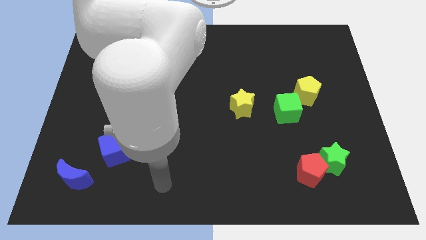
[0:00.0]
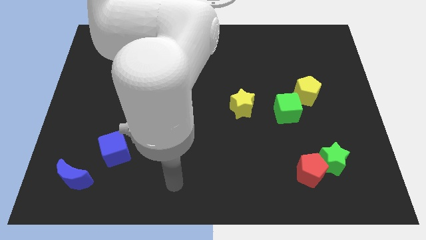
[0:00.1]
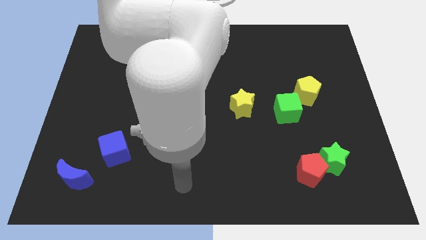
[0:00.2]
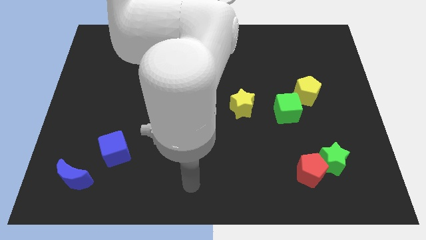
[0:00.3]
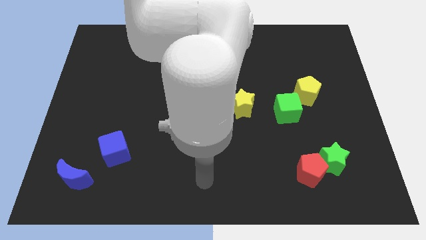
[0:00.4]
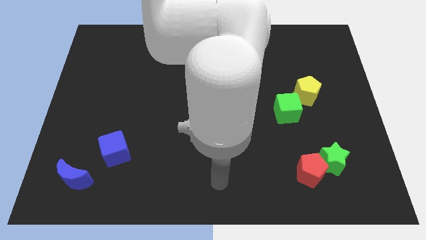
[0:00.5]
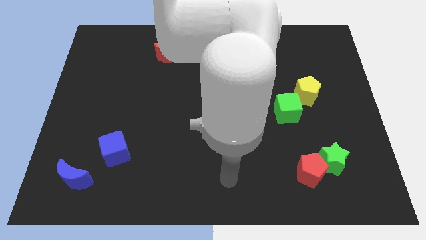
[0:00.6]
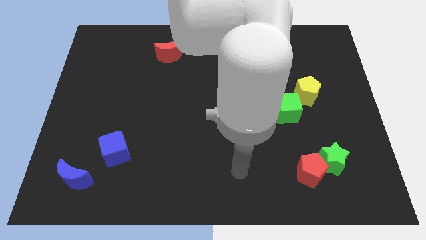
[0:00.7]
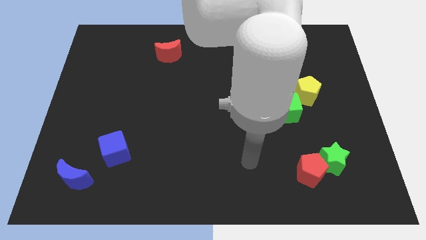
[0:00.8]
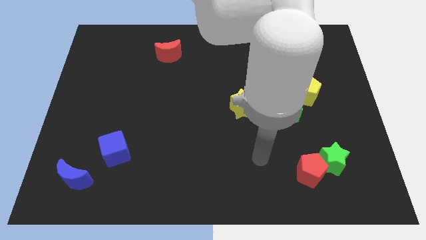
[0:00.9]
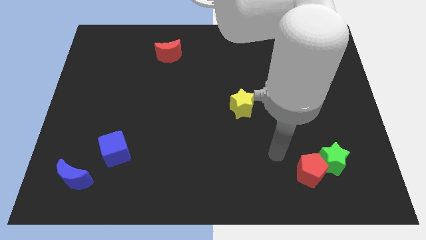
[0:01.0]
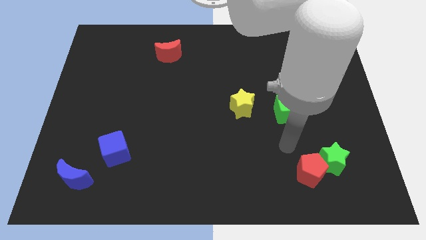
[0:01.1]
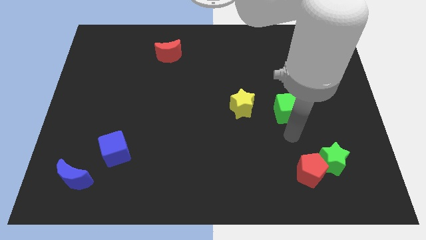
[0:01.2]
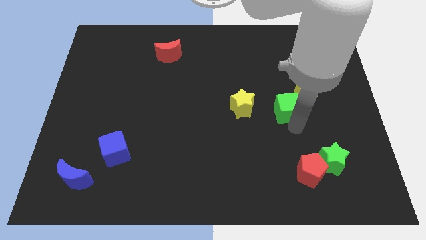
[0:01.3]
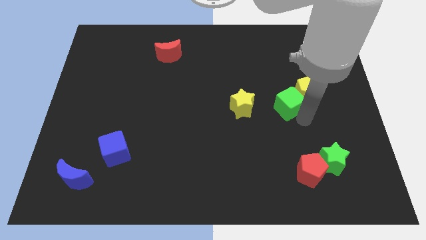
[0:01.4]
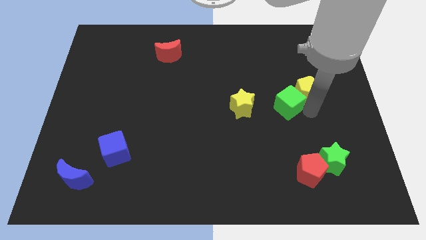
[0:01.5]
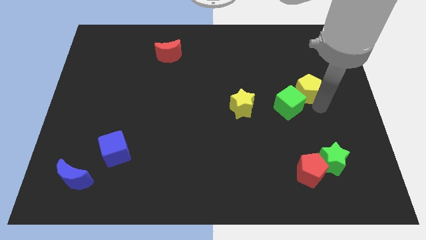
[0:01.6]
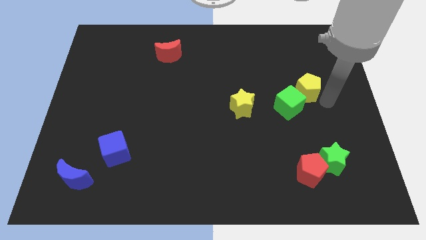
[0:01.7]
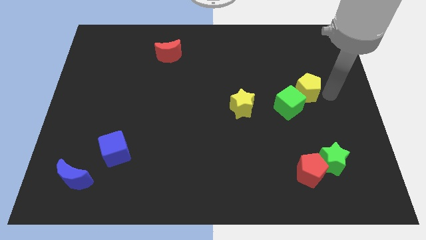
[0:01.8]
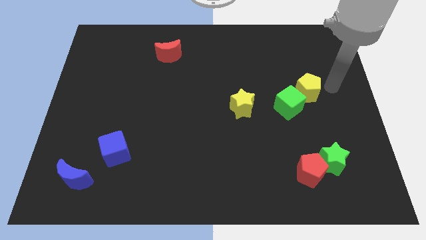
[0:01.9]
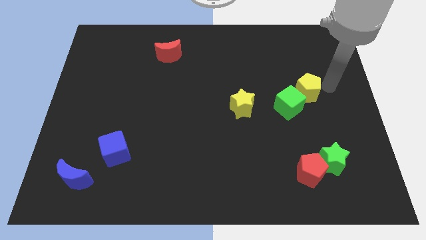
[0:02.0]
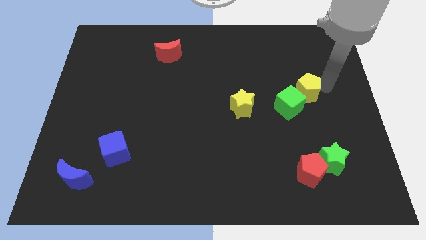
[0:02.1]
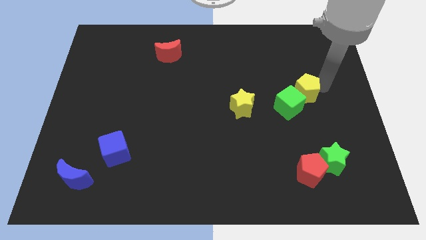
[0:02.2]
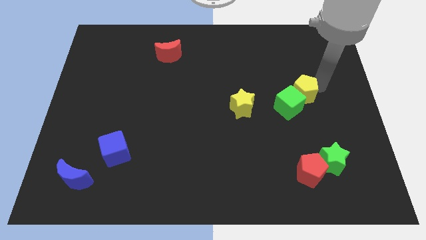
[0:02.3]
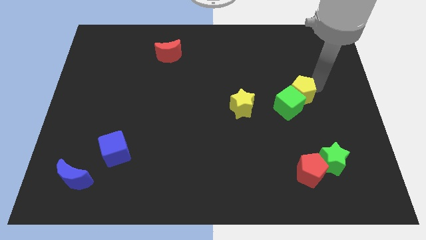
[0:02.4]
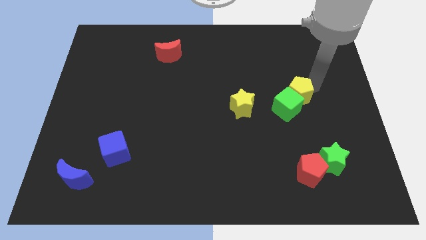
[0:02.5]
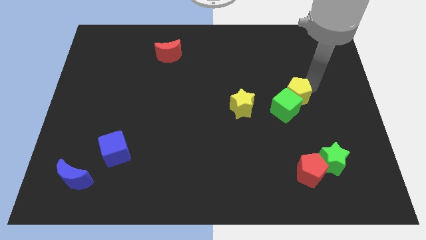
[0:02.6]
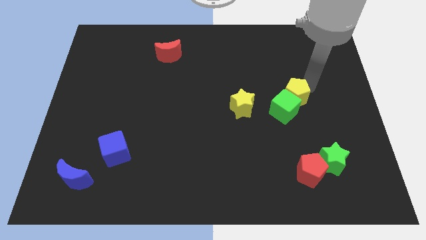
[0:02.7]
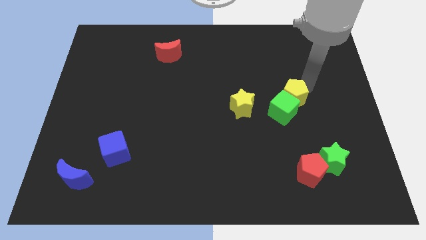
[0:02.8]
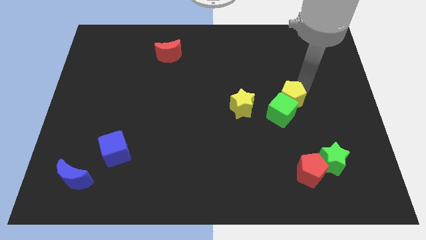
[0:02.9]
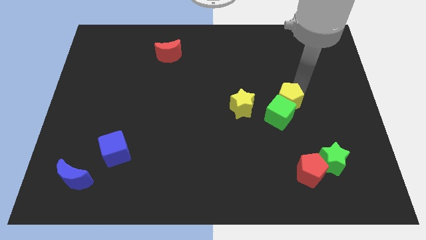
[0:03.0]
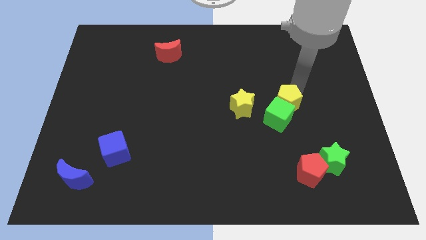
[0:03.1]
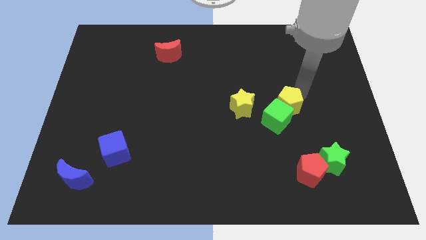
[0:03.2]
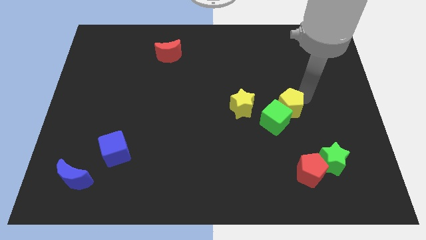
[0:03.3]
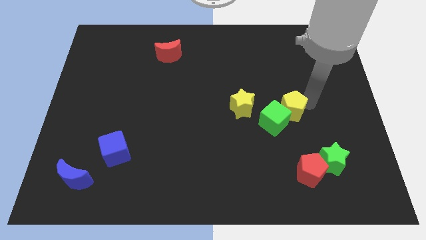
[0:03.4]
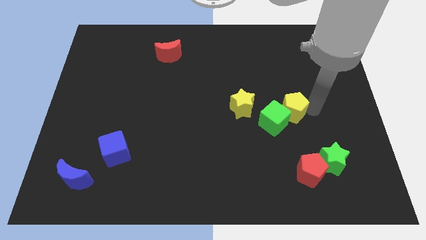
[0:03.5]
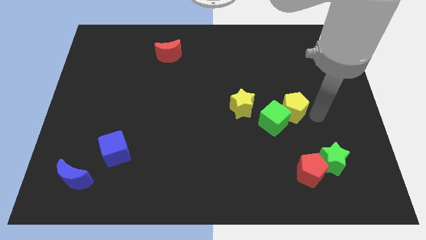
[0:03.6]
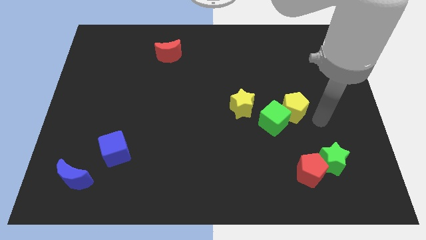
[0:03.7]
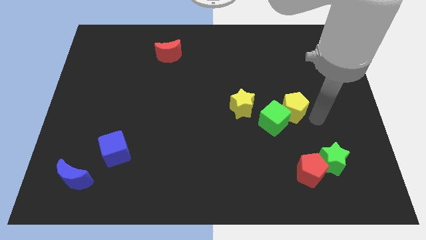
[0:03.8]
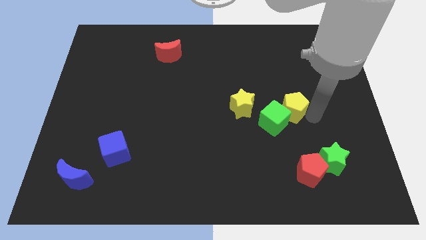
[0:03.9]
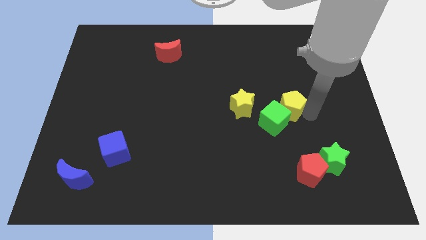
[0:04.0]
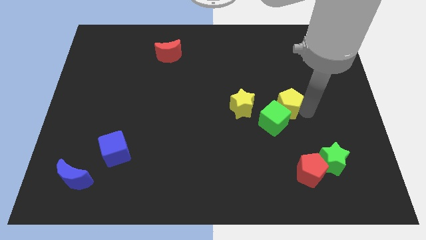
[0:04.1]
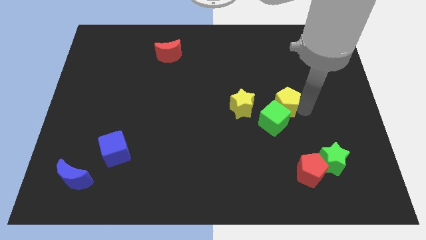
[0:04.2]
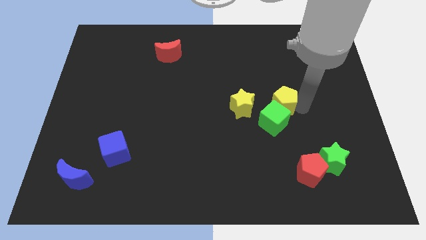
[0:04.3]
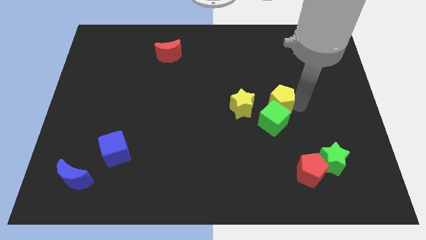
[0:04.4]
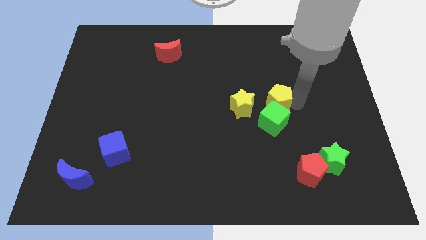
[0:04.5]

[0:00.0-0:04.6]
push the yellow pentagon to the left a bit

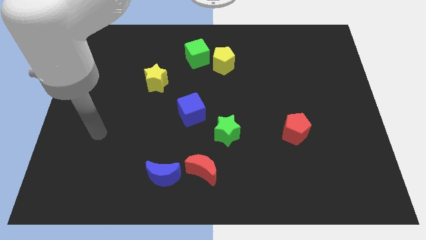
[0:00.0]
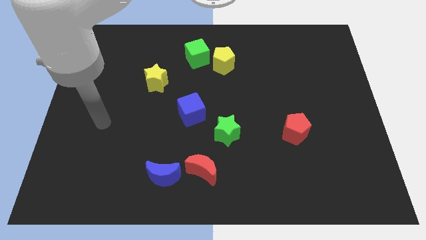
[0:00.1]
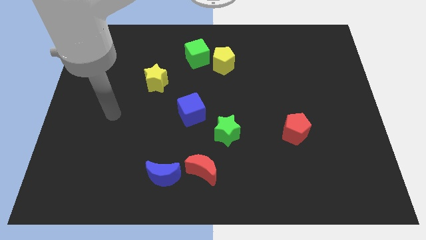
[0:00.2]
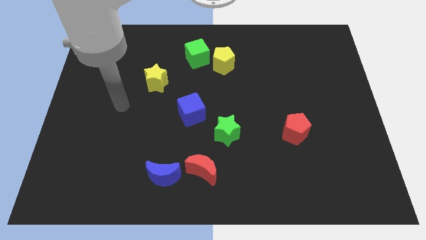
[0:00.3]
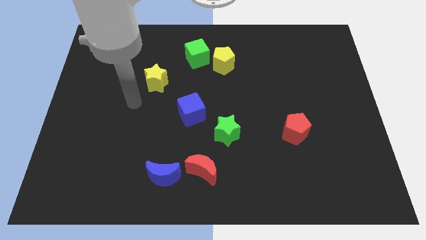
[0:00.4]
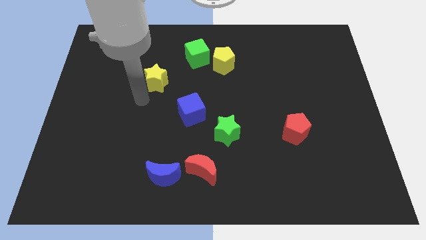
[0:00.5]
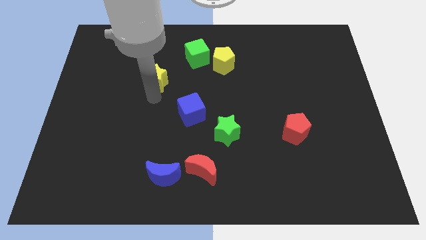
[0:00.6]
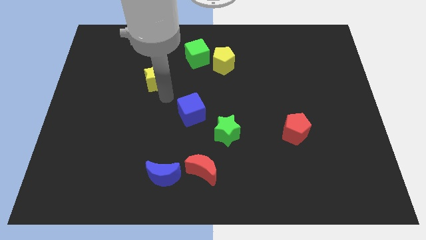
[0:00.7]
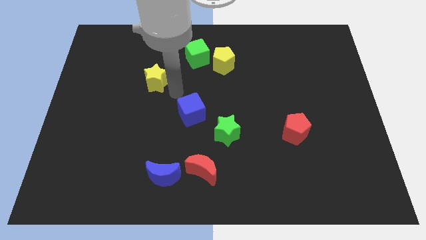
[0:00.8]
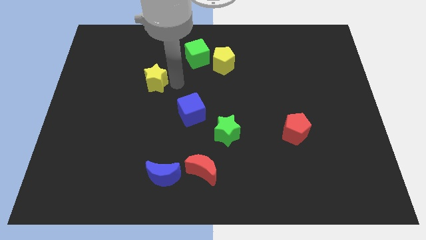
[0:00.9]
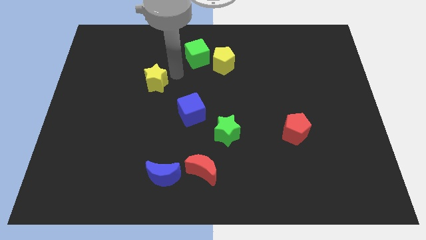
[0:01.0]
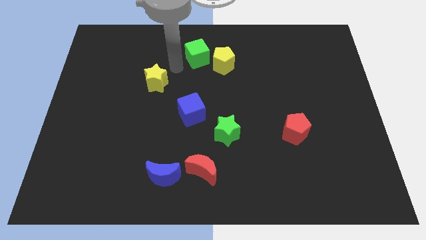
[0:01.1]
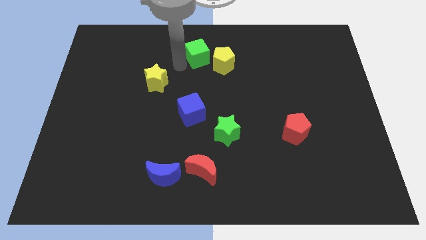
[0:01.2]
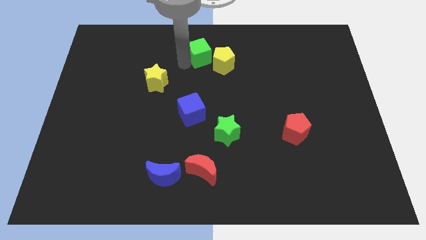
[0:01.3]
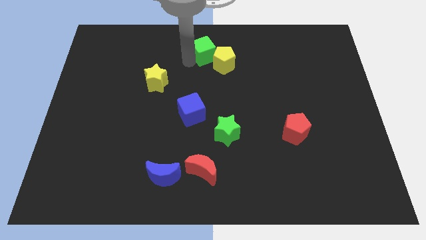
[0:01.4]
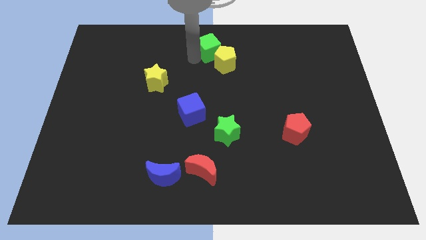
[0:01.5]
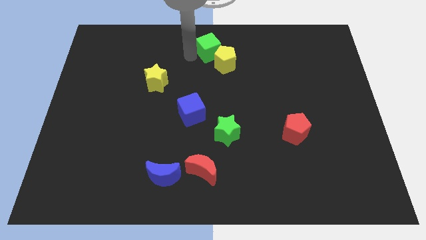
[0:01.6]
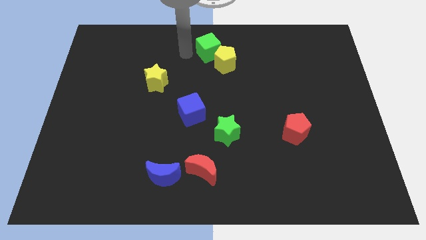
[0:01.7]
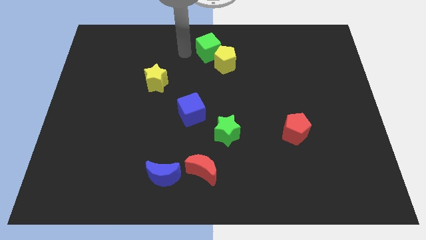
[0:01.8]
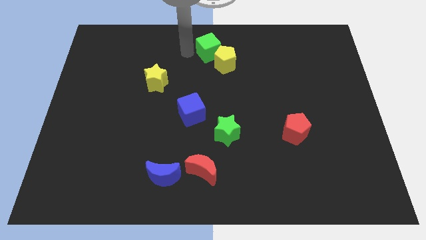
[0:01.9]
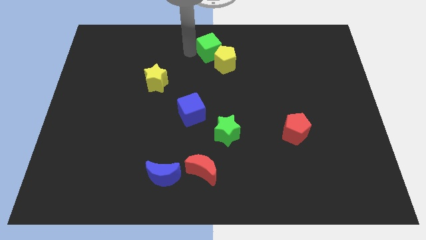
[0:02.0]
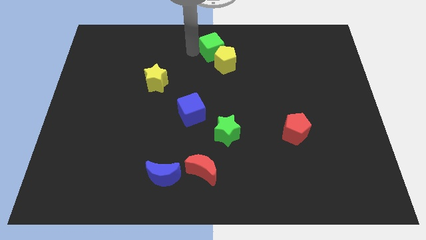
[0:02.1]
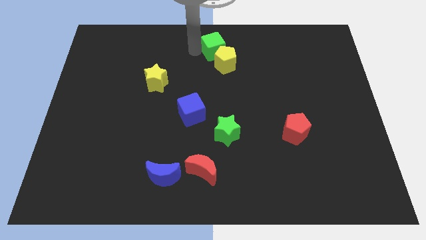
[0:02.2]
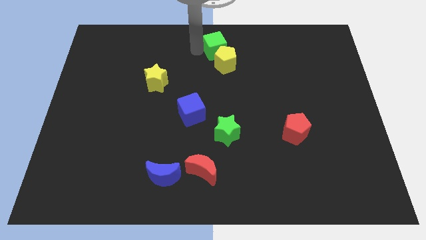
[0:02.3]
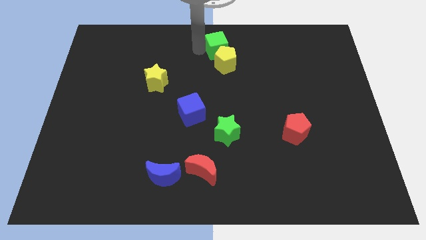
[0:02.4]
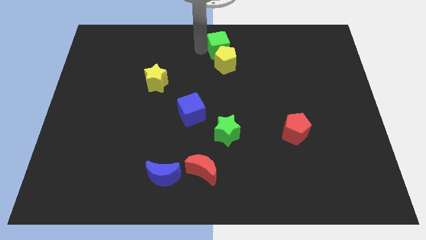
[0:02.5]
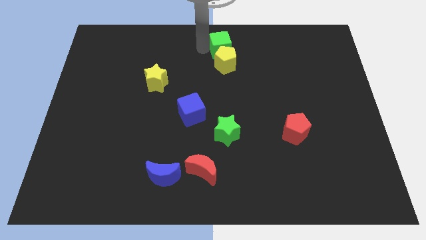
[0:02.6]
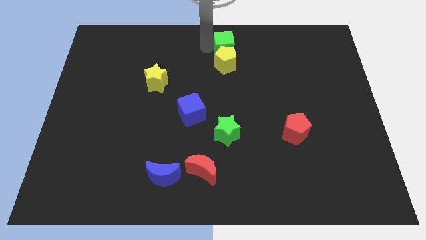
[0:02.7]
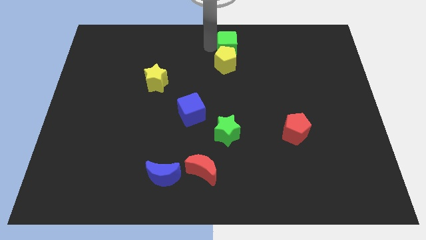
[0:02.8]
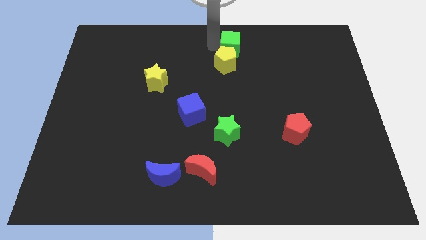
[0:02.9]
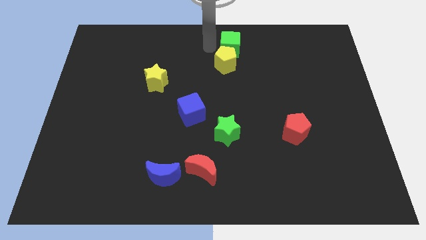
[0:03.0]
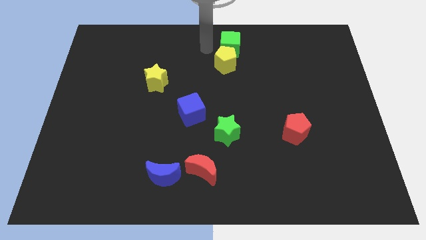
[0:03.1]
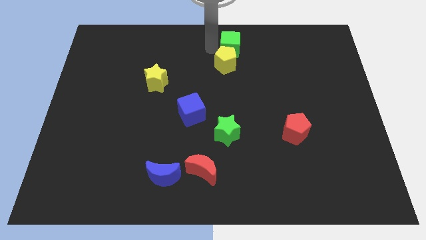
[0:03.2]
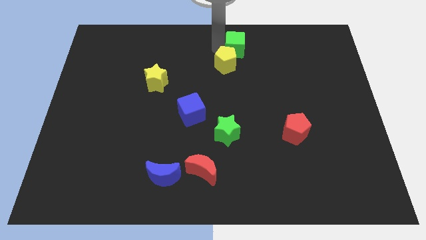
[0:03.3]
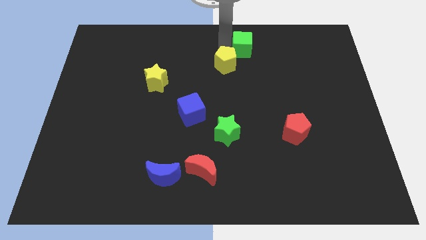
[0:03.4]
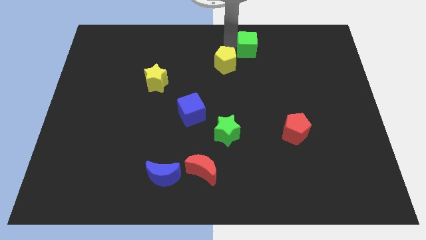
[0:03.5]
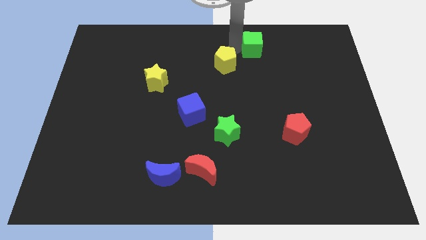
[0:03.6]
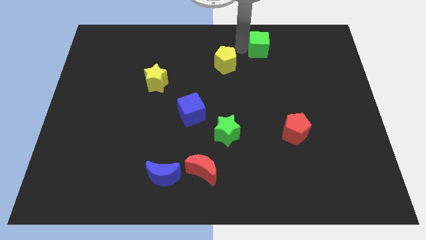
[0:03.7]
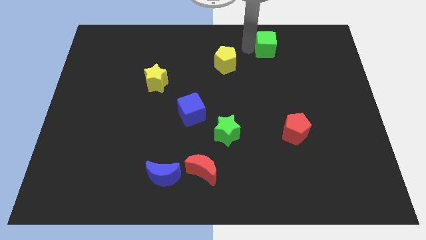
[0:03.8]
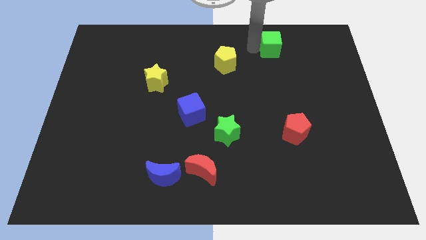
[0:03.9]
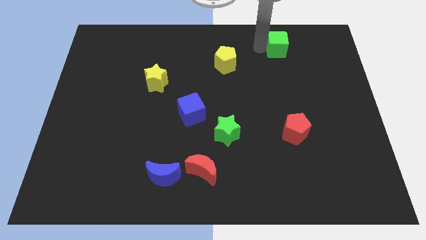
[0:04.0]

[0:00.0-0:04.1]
move the green cube to the right
